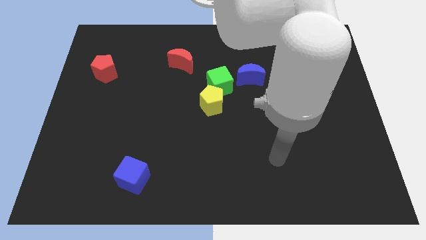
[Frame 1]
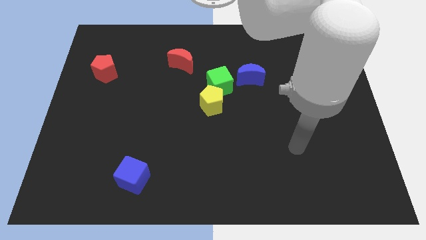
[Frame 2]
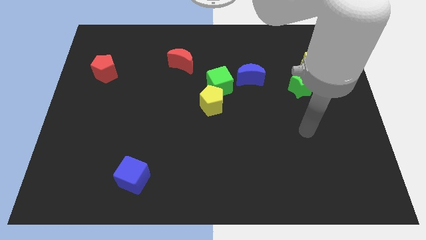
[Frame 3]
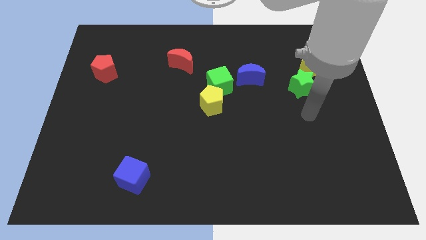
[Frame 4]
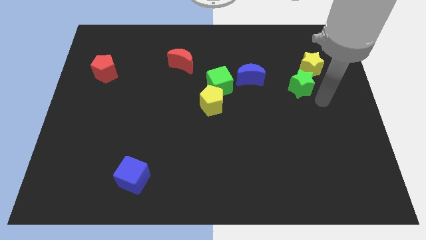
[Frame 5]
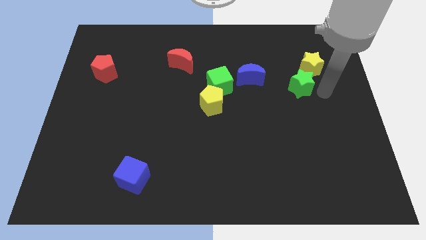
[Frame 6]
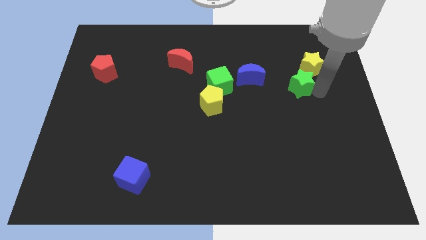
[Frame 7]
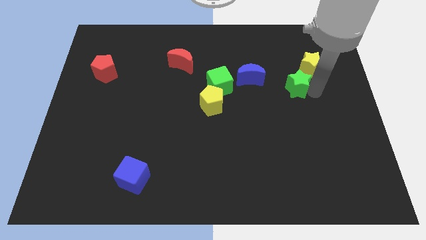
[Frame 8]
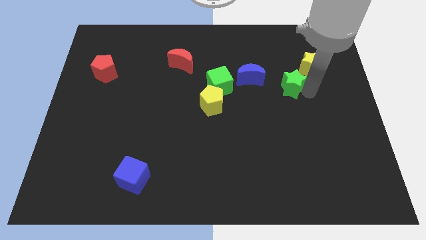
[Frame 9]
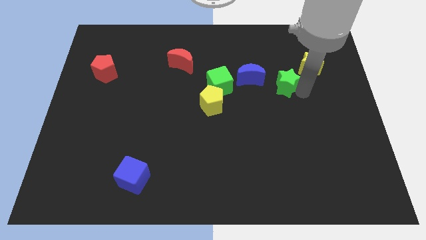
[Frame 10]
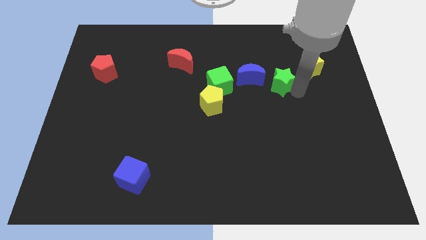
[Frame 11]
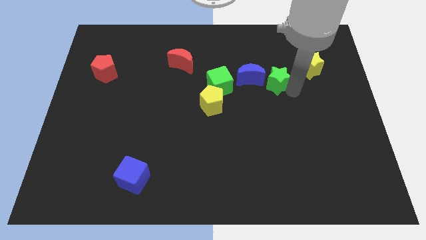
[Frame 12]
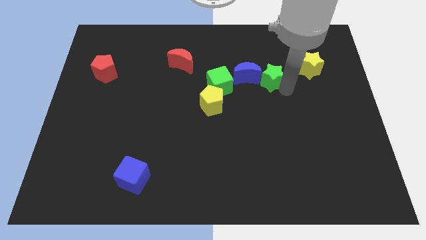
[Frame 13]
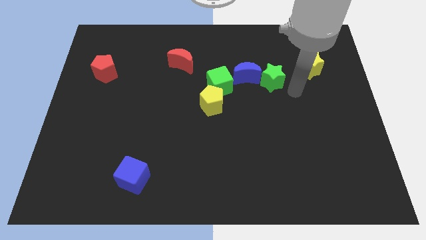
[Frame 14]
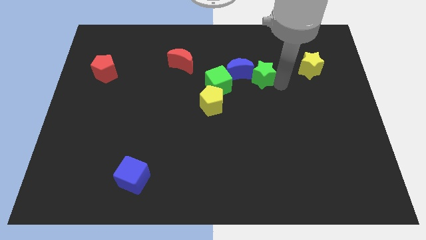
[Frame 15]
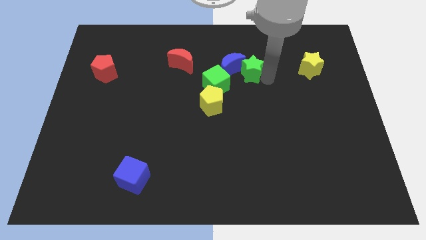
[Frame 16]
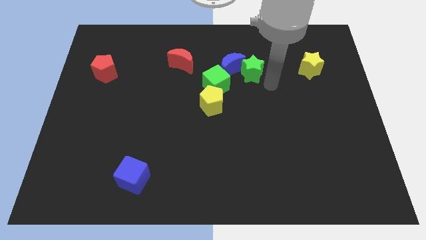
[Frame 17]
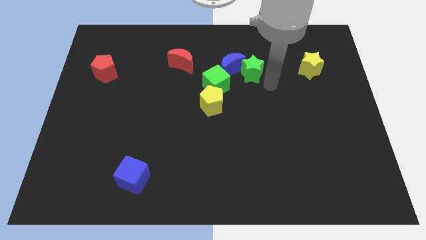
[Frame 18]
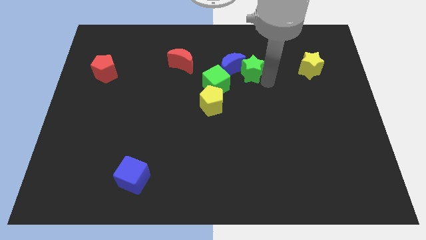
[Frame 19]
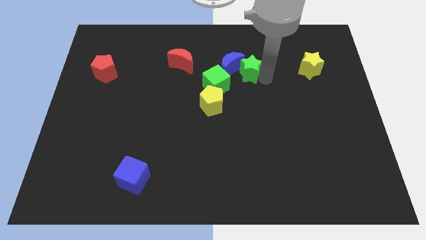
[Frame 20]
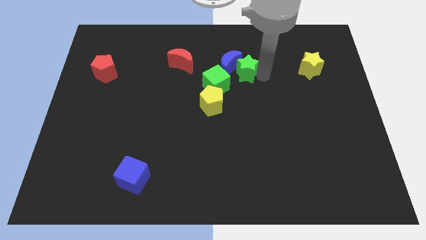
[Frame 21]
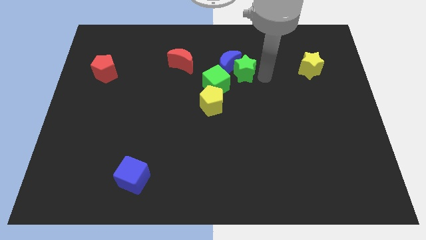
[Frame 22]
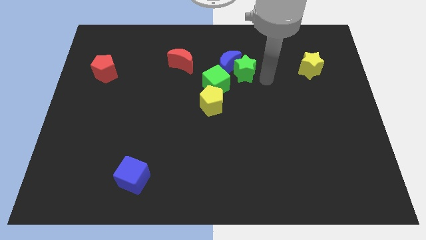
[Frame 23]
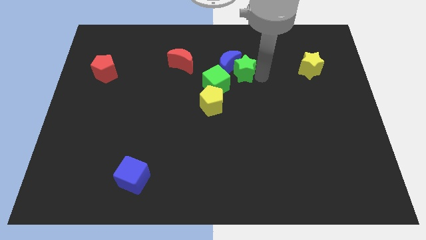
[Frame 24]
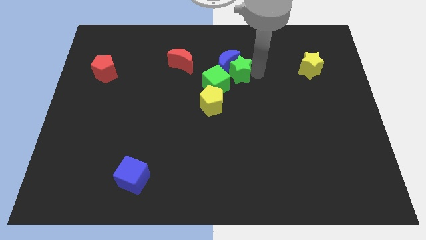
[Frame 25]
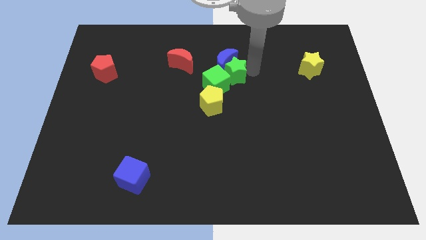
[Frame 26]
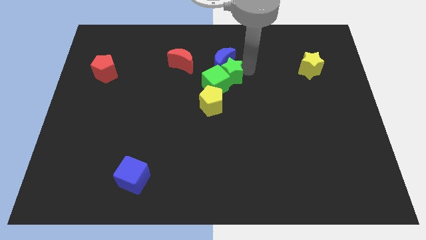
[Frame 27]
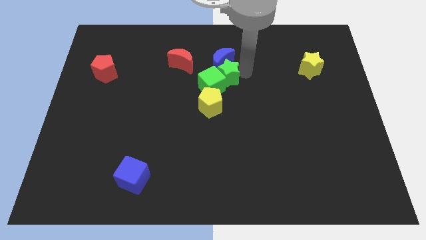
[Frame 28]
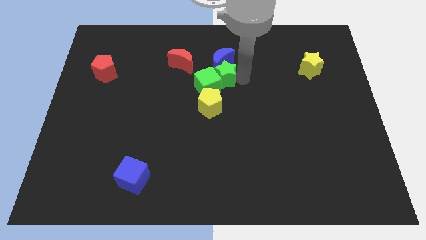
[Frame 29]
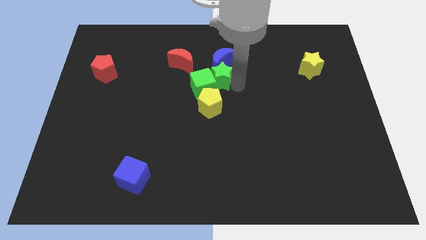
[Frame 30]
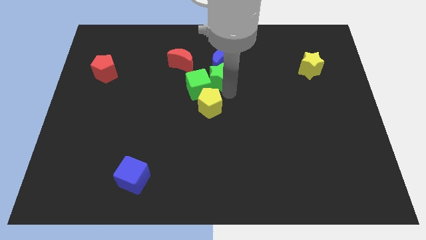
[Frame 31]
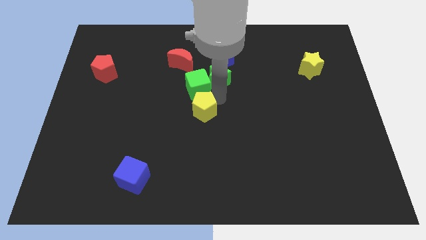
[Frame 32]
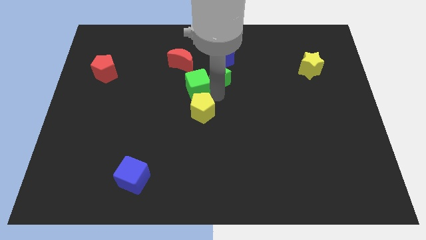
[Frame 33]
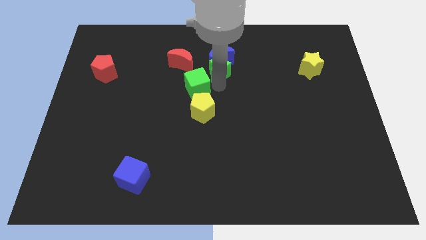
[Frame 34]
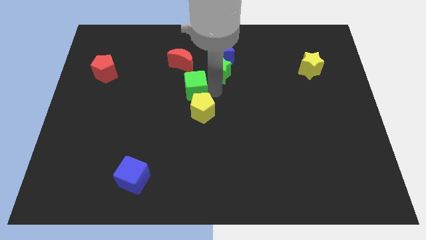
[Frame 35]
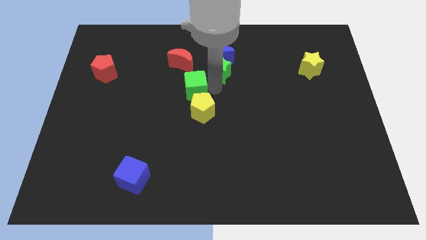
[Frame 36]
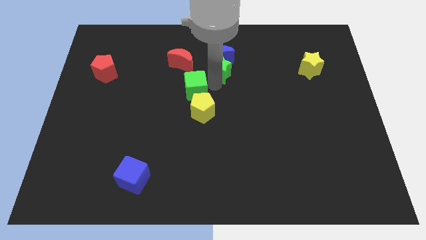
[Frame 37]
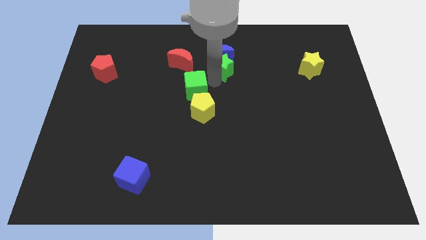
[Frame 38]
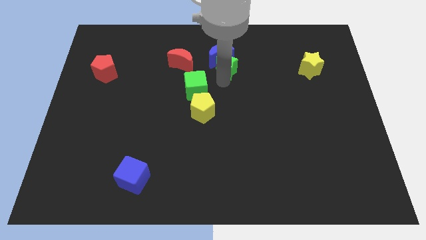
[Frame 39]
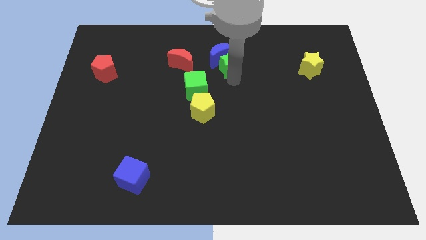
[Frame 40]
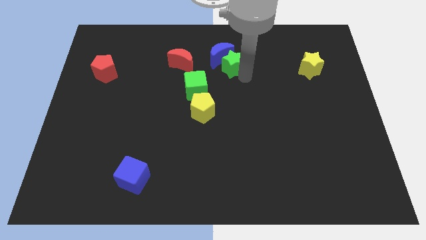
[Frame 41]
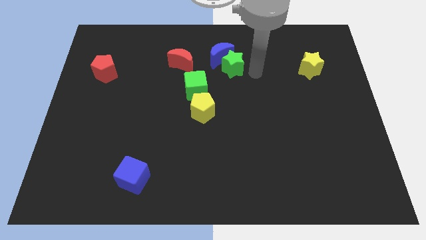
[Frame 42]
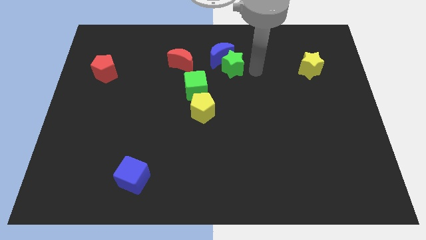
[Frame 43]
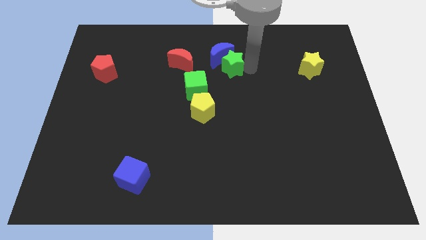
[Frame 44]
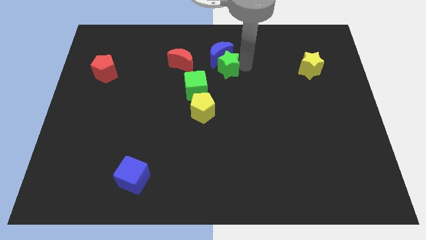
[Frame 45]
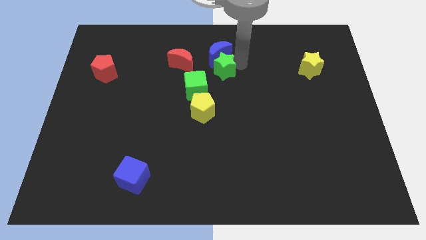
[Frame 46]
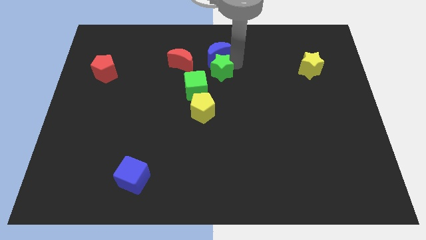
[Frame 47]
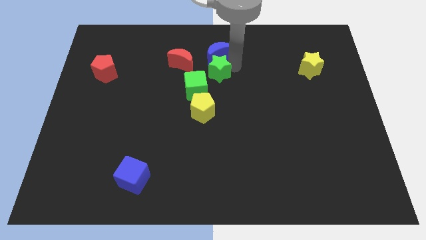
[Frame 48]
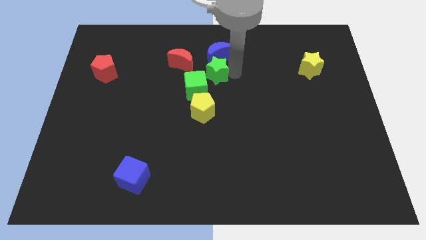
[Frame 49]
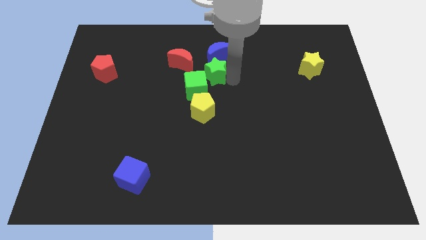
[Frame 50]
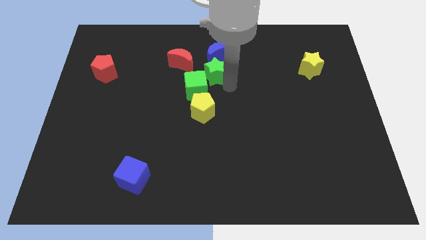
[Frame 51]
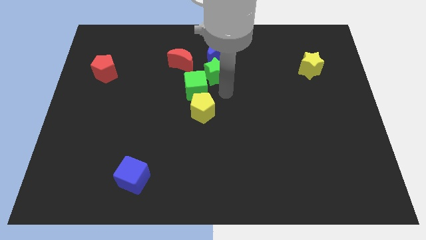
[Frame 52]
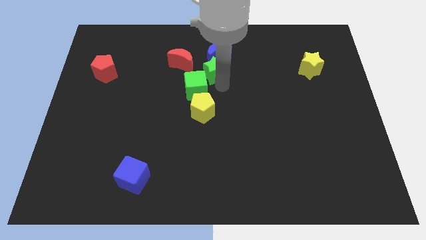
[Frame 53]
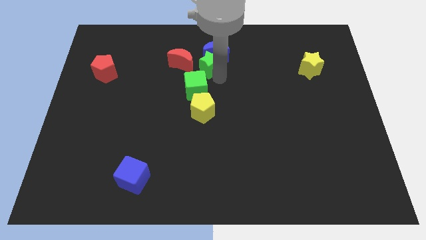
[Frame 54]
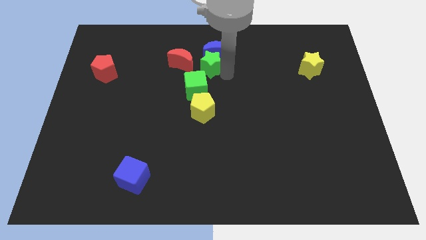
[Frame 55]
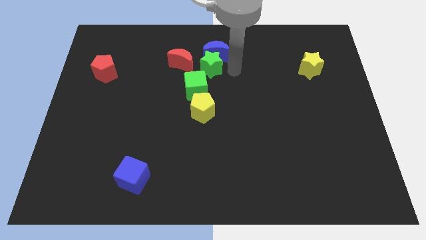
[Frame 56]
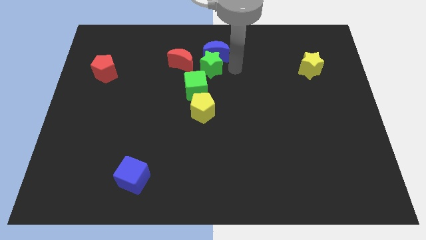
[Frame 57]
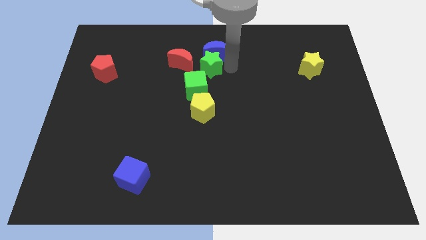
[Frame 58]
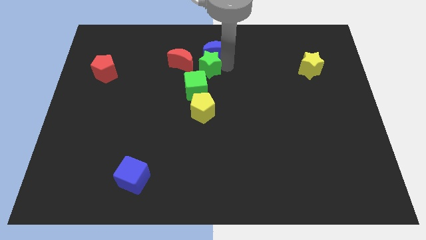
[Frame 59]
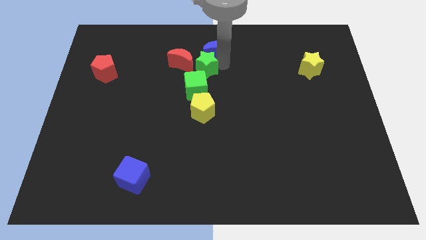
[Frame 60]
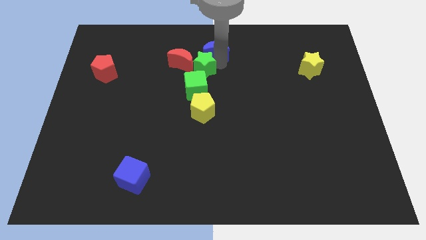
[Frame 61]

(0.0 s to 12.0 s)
push the green star to the red moon
